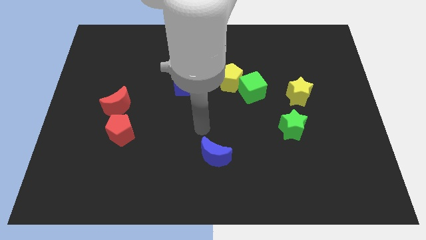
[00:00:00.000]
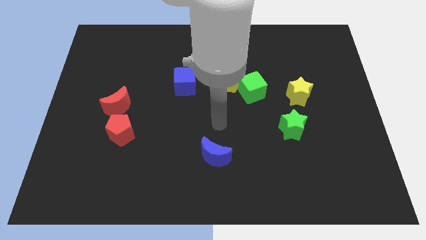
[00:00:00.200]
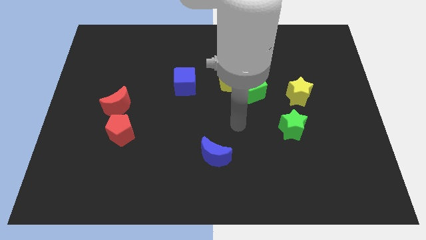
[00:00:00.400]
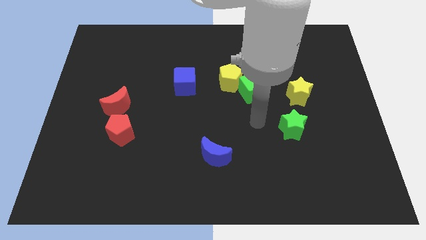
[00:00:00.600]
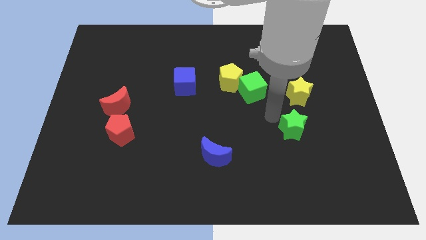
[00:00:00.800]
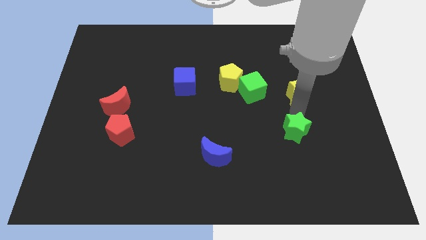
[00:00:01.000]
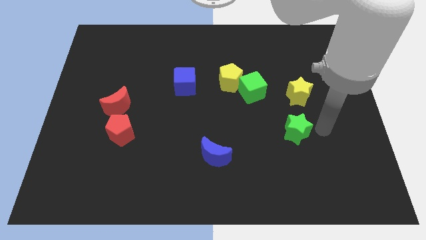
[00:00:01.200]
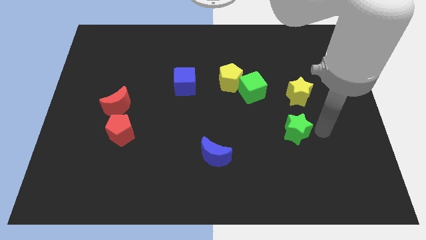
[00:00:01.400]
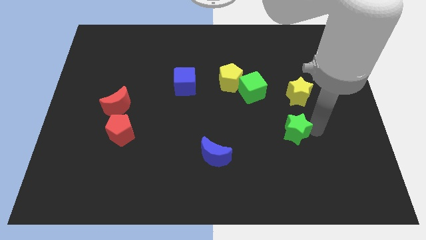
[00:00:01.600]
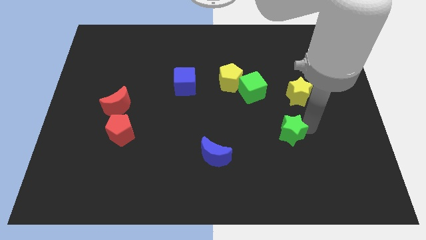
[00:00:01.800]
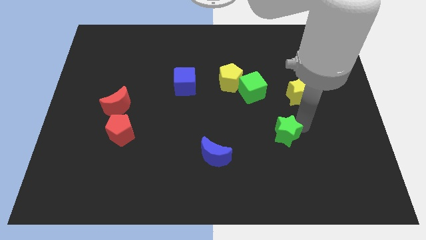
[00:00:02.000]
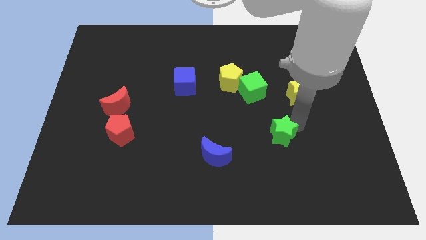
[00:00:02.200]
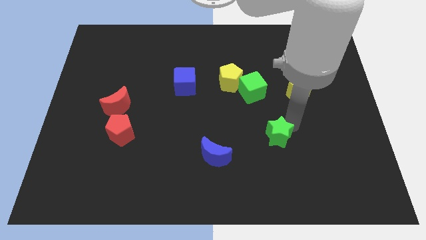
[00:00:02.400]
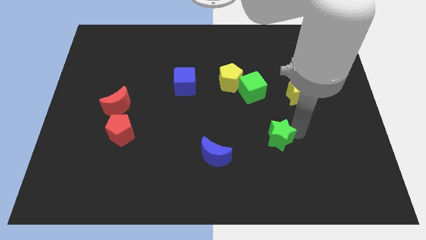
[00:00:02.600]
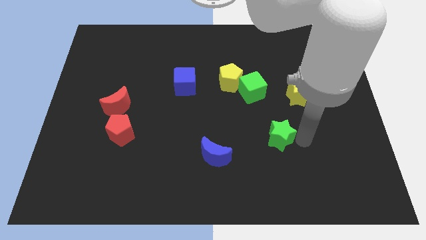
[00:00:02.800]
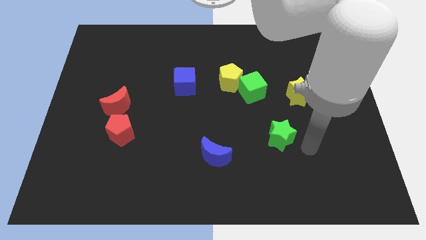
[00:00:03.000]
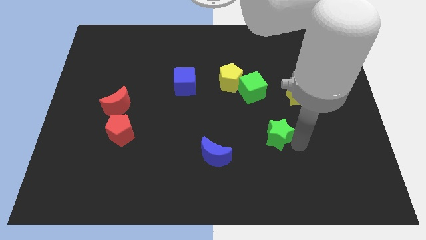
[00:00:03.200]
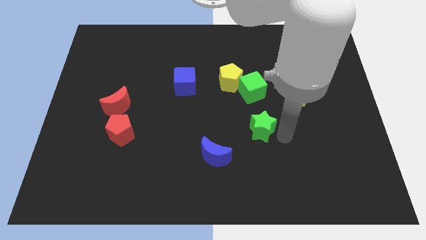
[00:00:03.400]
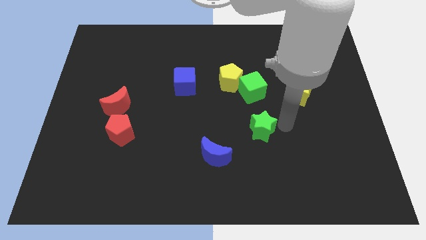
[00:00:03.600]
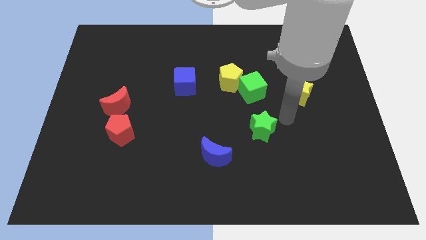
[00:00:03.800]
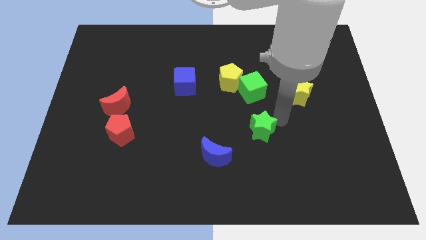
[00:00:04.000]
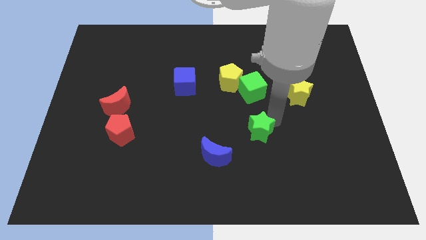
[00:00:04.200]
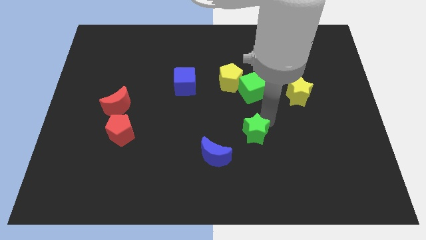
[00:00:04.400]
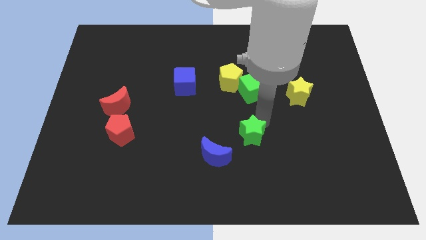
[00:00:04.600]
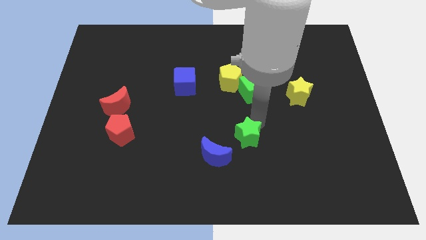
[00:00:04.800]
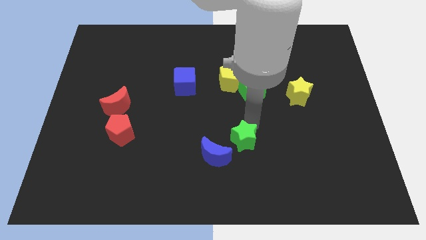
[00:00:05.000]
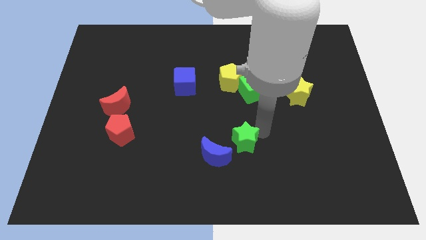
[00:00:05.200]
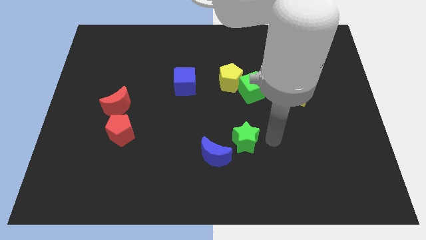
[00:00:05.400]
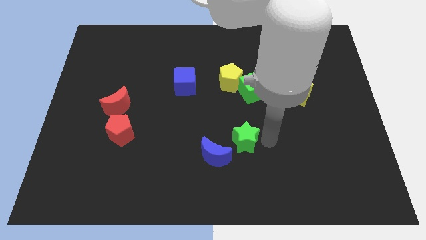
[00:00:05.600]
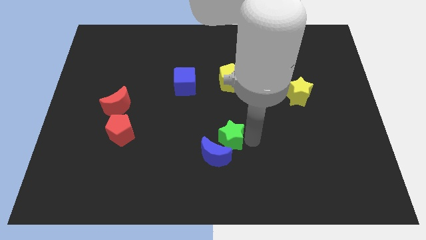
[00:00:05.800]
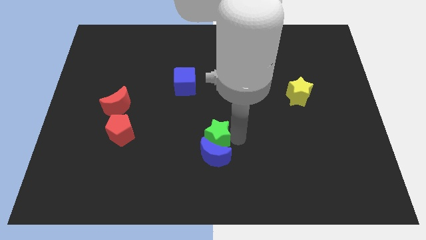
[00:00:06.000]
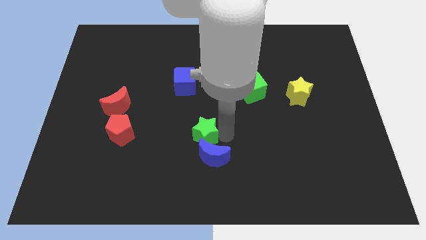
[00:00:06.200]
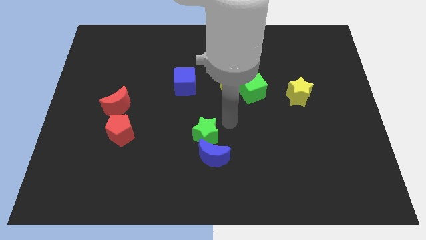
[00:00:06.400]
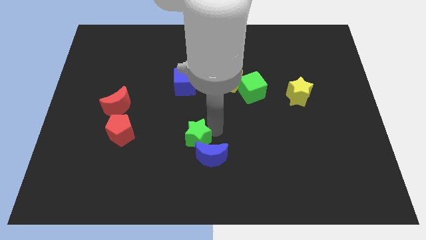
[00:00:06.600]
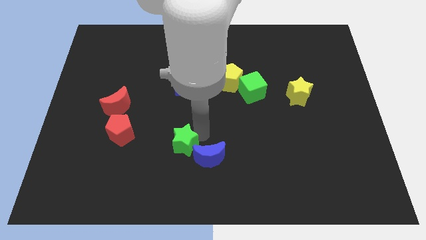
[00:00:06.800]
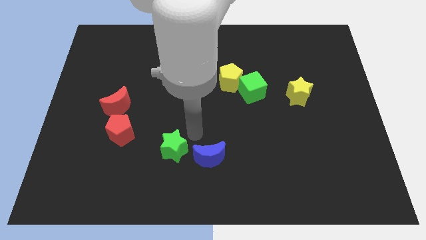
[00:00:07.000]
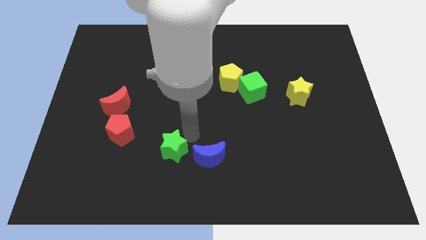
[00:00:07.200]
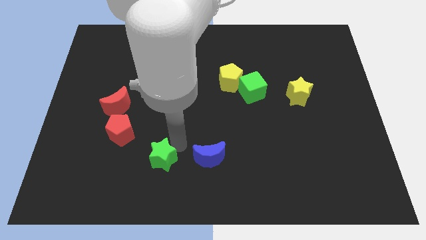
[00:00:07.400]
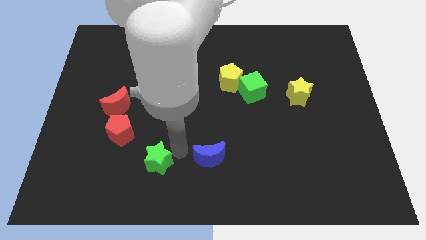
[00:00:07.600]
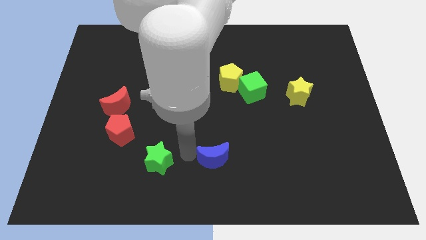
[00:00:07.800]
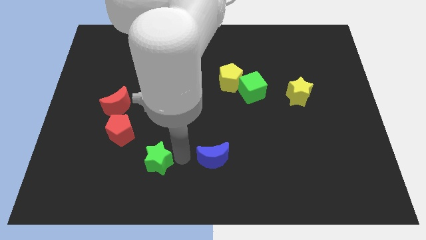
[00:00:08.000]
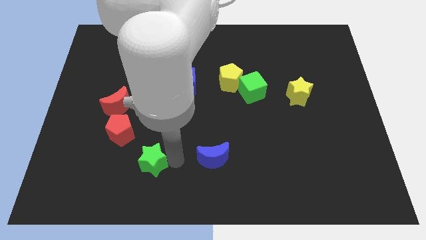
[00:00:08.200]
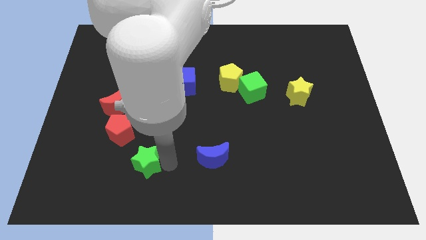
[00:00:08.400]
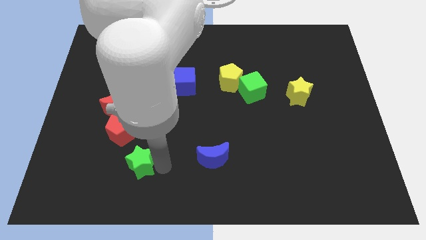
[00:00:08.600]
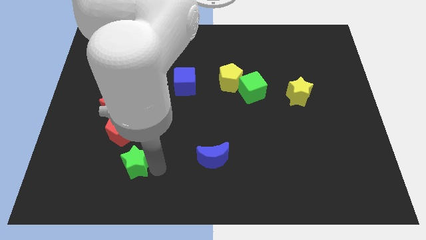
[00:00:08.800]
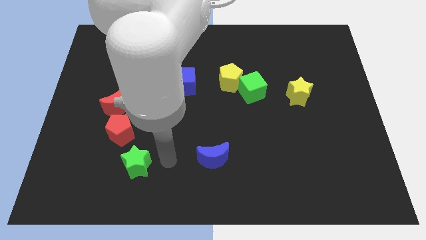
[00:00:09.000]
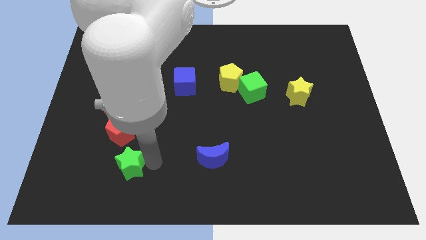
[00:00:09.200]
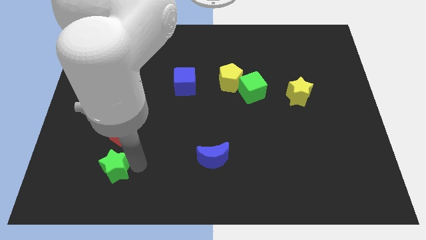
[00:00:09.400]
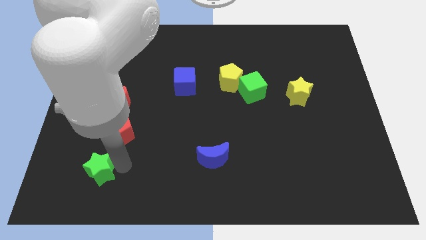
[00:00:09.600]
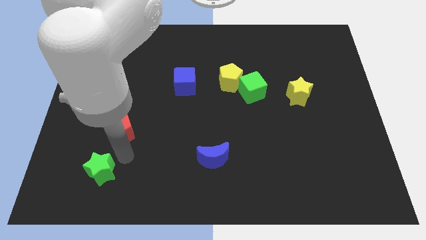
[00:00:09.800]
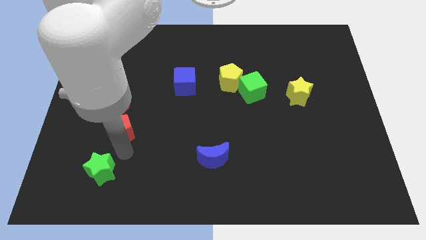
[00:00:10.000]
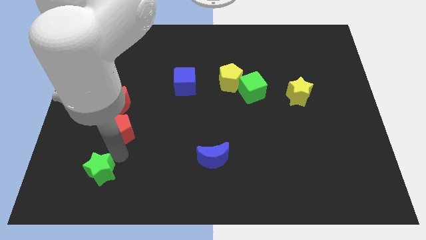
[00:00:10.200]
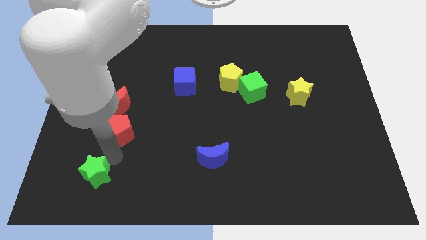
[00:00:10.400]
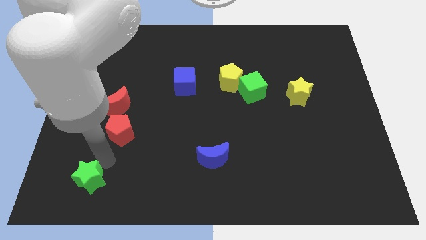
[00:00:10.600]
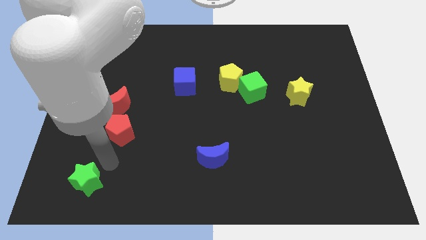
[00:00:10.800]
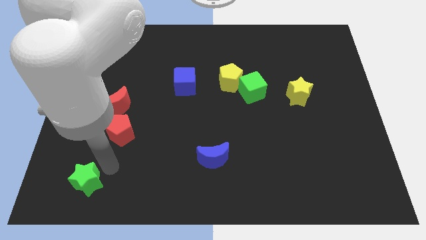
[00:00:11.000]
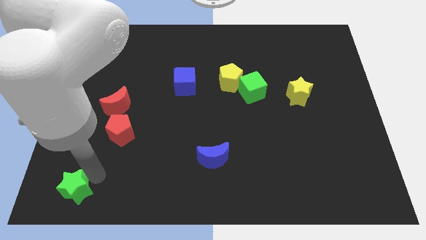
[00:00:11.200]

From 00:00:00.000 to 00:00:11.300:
move the green star to the bottom left of the board
